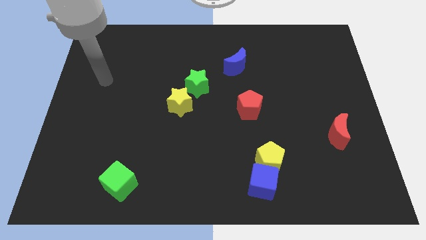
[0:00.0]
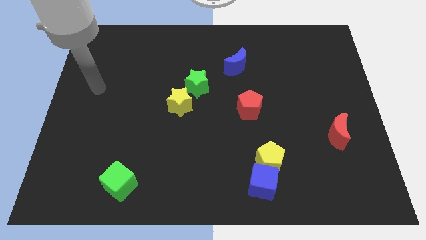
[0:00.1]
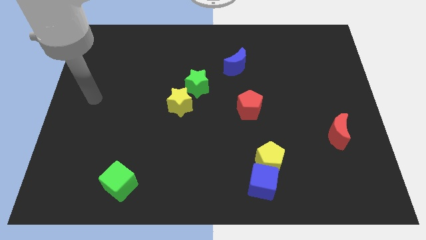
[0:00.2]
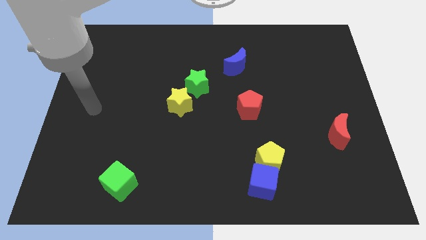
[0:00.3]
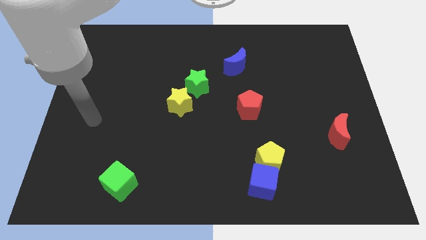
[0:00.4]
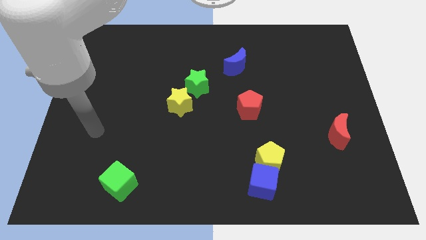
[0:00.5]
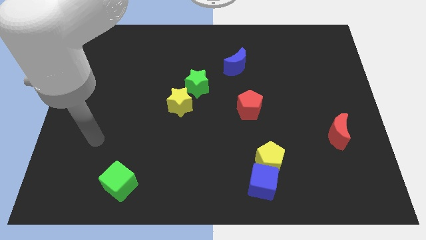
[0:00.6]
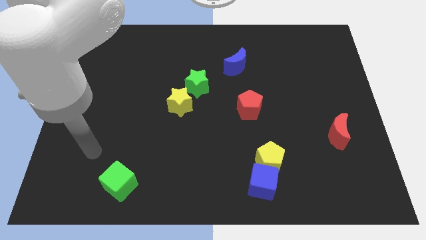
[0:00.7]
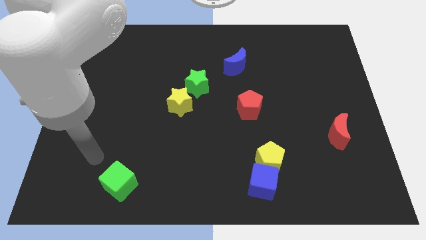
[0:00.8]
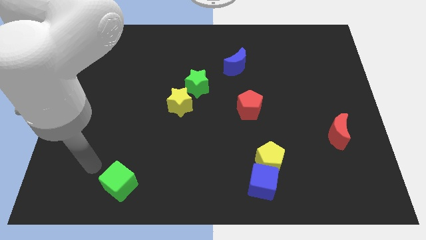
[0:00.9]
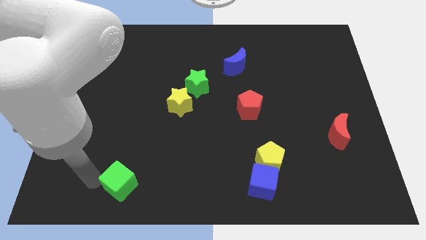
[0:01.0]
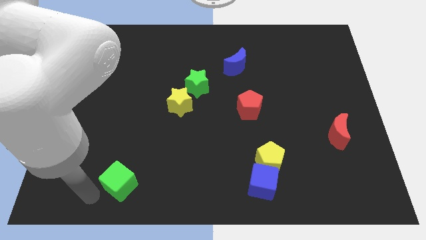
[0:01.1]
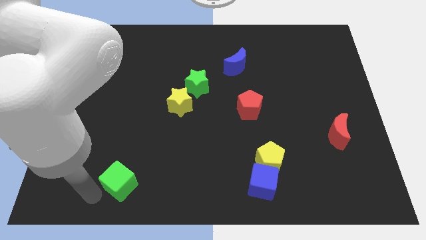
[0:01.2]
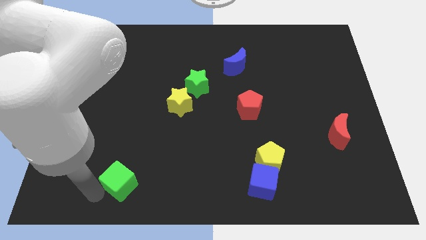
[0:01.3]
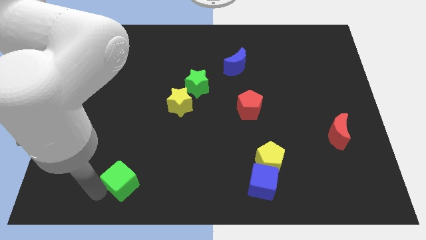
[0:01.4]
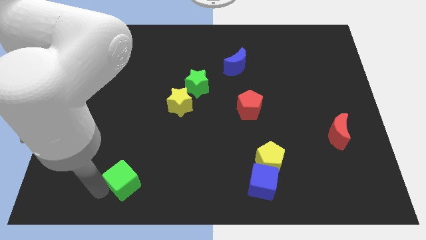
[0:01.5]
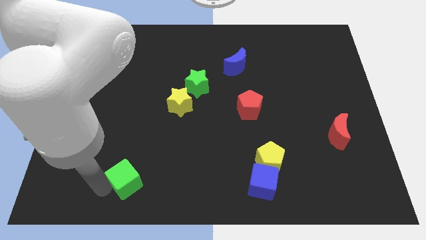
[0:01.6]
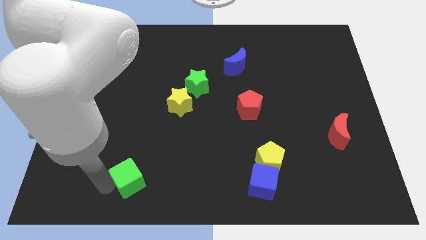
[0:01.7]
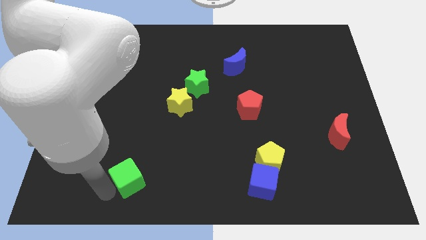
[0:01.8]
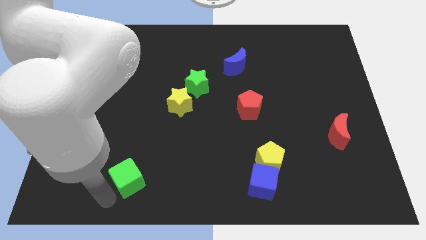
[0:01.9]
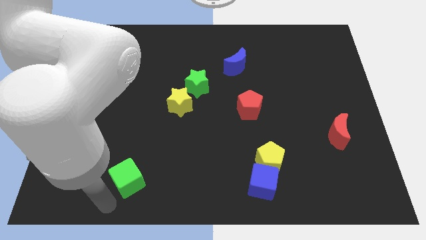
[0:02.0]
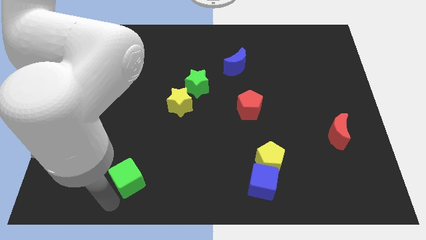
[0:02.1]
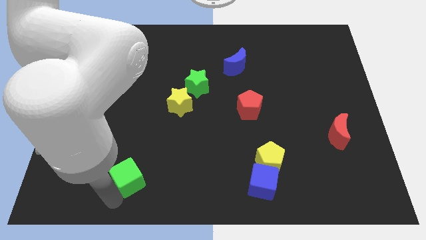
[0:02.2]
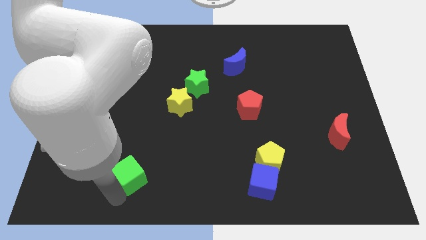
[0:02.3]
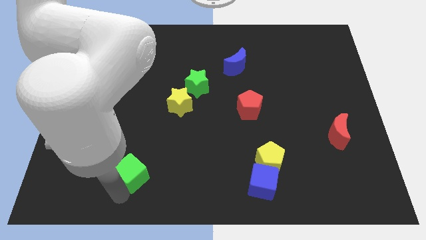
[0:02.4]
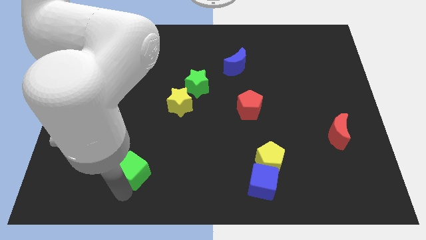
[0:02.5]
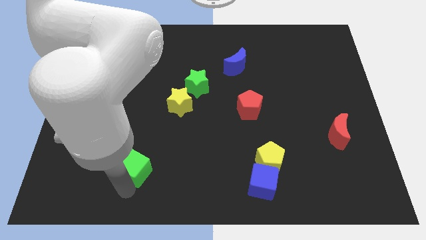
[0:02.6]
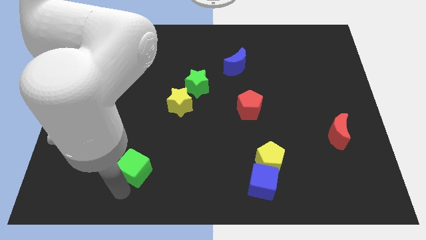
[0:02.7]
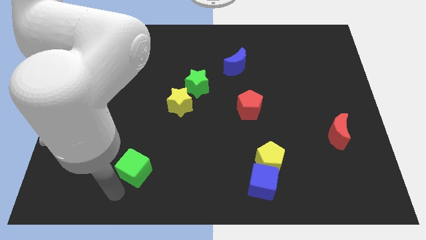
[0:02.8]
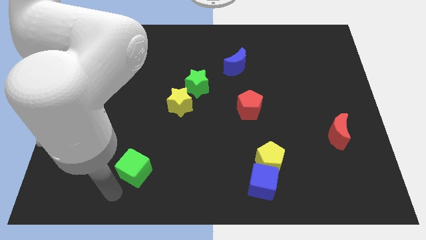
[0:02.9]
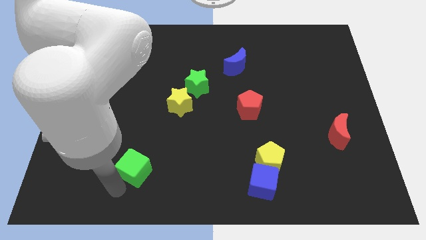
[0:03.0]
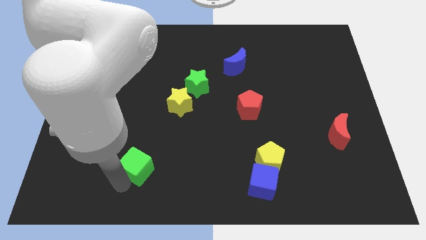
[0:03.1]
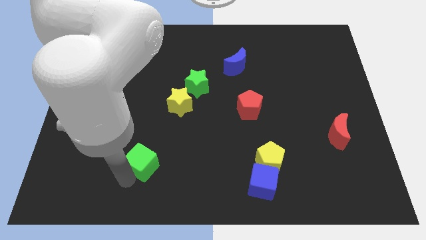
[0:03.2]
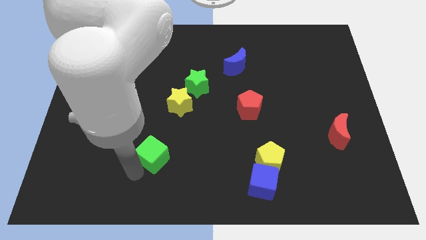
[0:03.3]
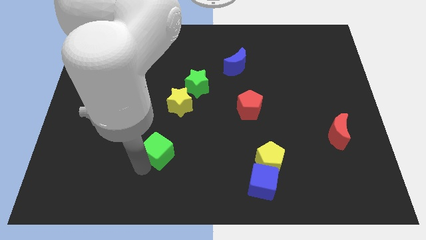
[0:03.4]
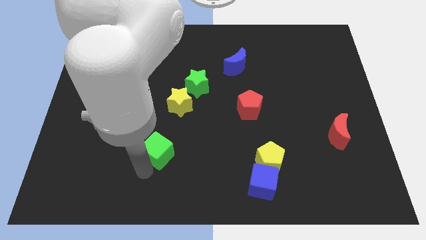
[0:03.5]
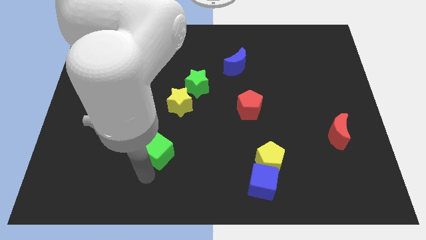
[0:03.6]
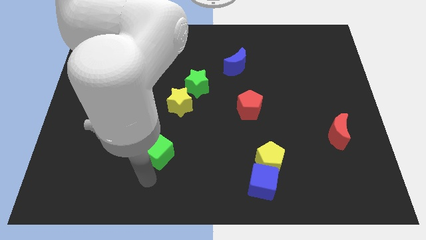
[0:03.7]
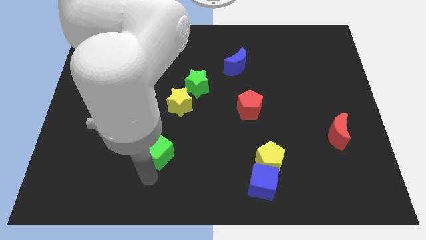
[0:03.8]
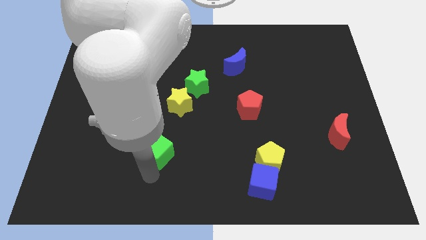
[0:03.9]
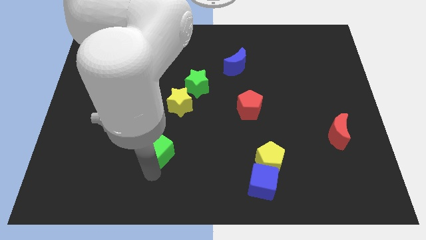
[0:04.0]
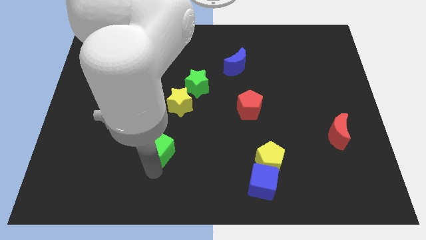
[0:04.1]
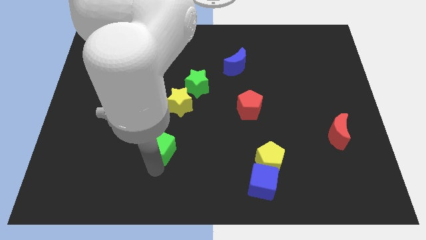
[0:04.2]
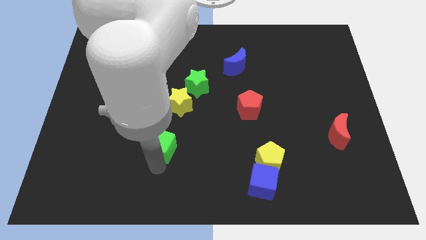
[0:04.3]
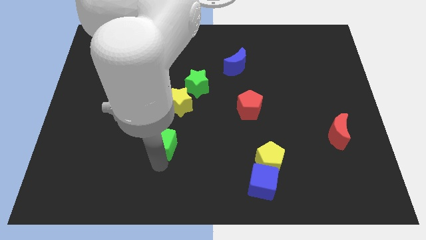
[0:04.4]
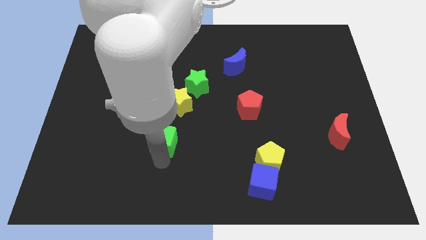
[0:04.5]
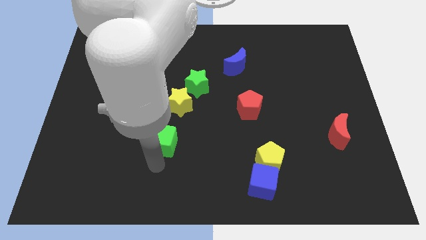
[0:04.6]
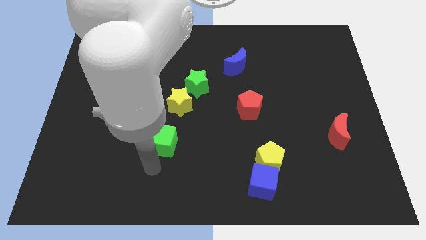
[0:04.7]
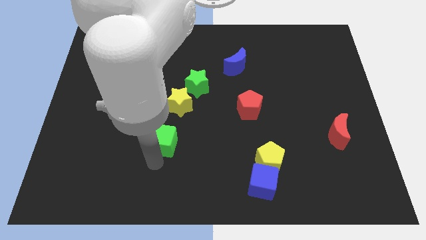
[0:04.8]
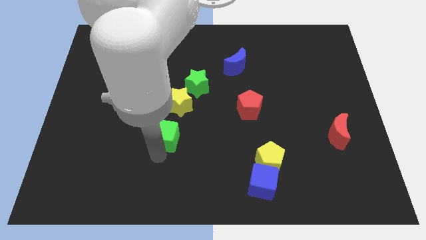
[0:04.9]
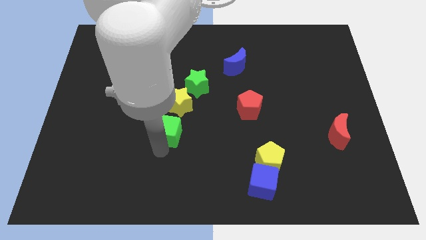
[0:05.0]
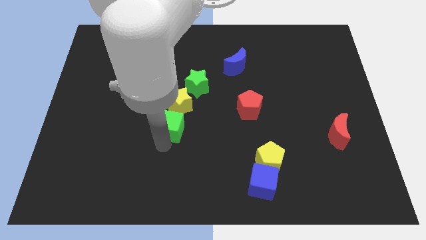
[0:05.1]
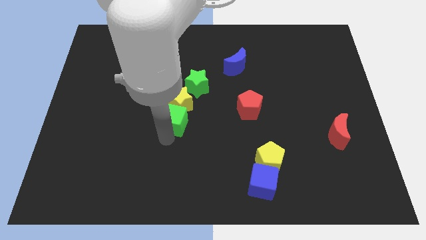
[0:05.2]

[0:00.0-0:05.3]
slide the green cube next to the yellow star

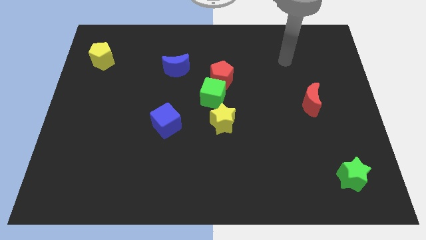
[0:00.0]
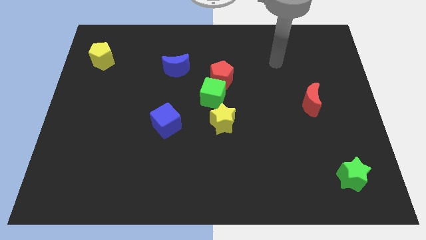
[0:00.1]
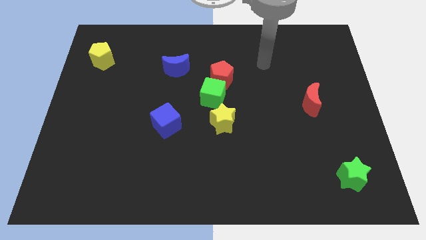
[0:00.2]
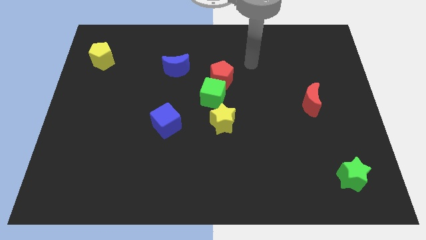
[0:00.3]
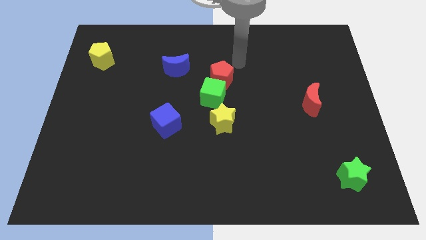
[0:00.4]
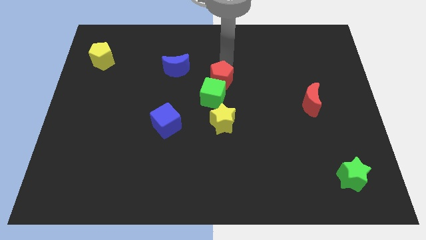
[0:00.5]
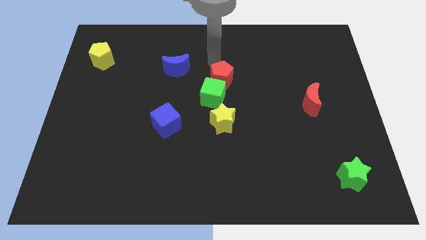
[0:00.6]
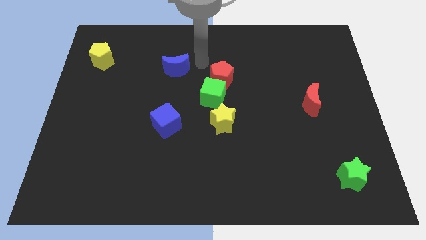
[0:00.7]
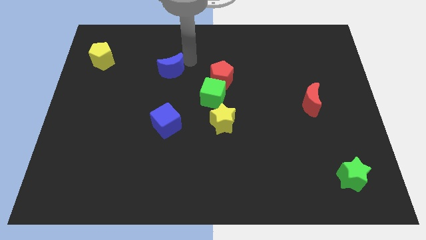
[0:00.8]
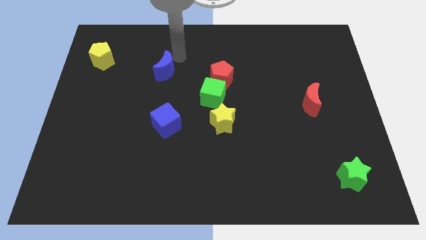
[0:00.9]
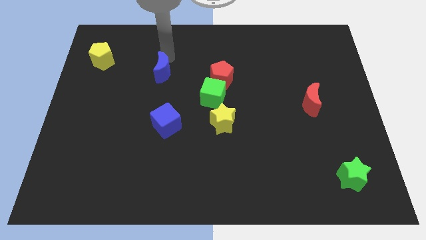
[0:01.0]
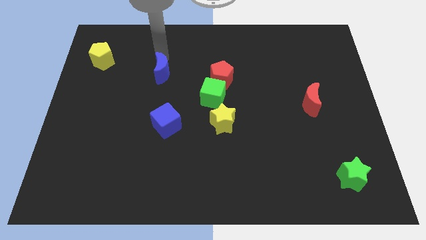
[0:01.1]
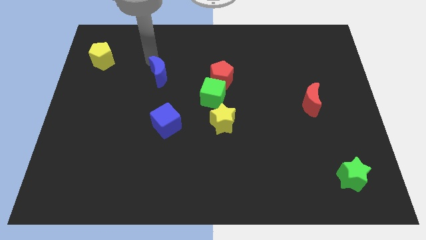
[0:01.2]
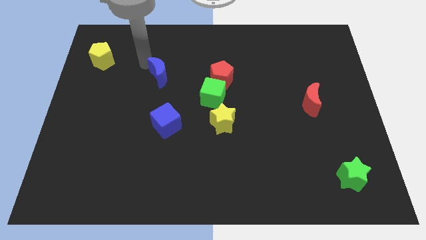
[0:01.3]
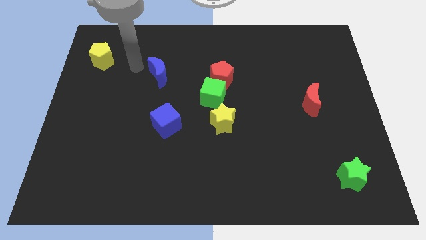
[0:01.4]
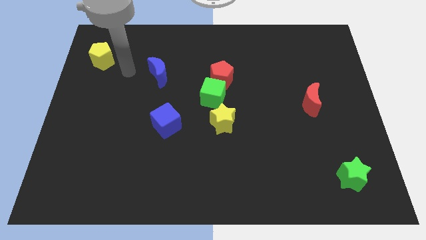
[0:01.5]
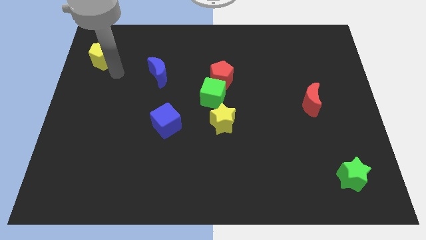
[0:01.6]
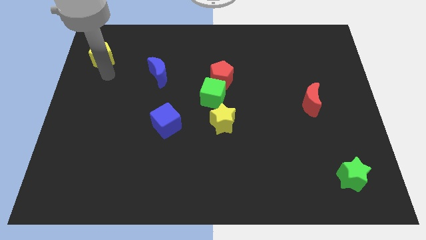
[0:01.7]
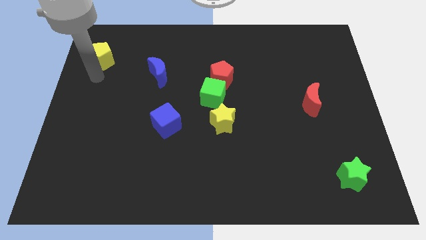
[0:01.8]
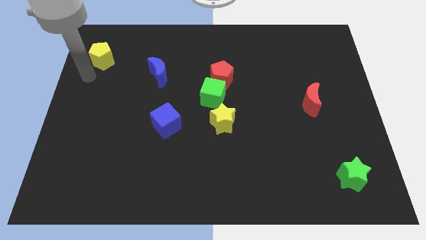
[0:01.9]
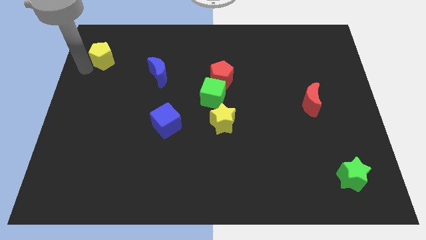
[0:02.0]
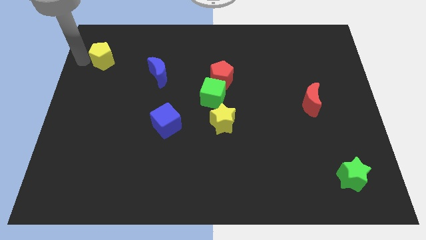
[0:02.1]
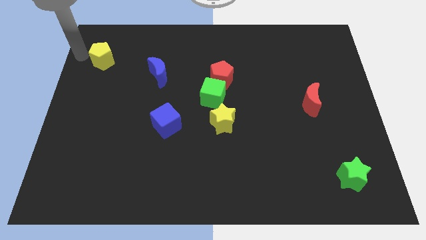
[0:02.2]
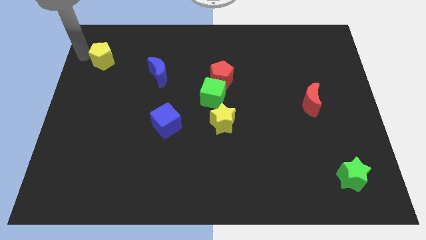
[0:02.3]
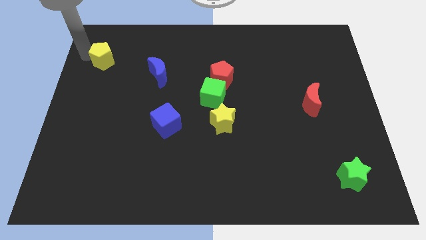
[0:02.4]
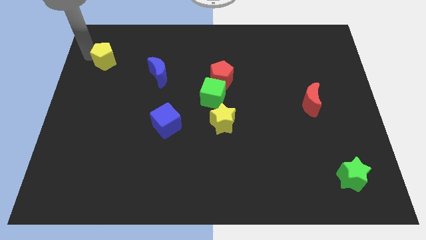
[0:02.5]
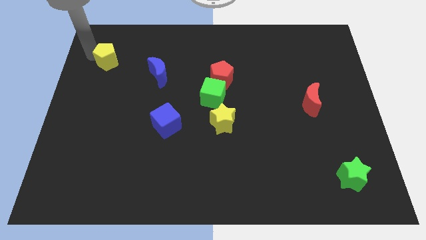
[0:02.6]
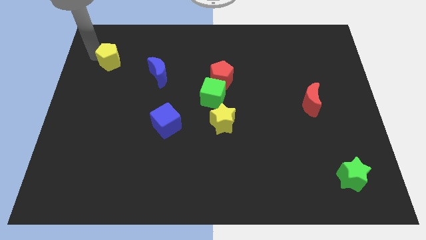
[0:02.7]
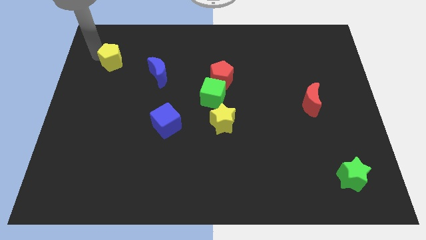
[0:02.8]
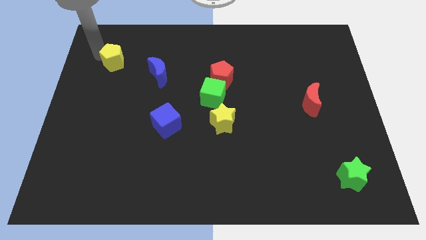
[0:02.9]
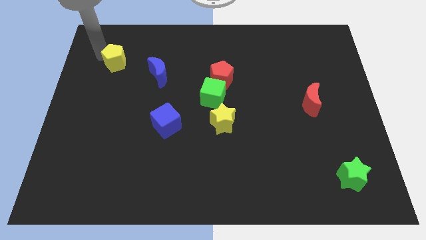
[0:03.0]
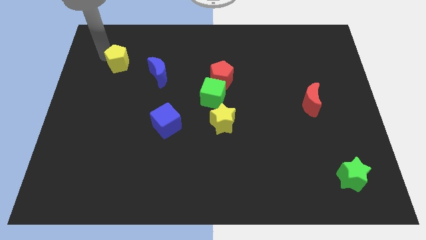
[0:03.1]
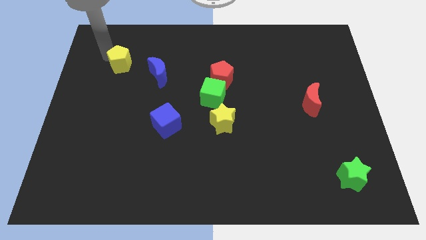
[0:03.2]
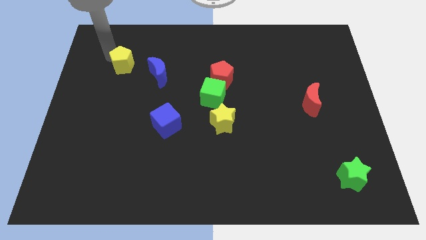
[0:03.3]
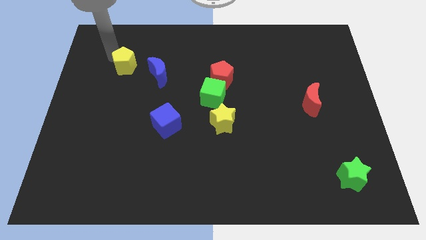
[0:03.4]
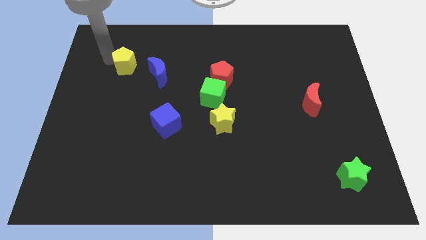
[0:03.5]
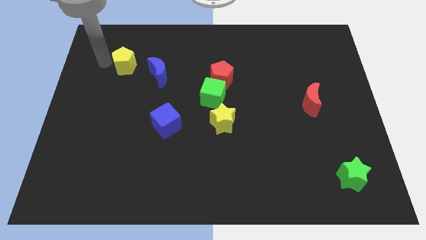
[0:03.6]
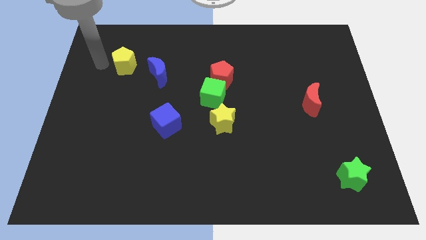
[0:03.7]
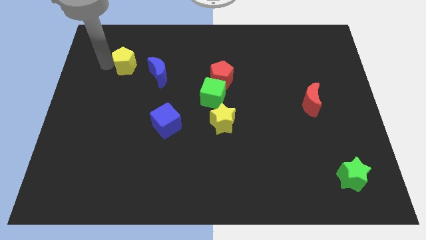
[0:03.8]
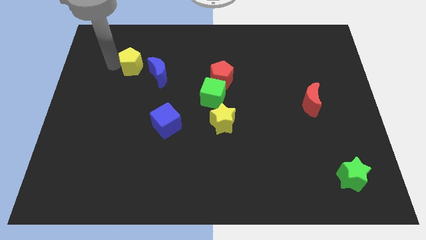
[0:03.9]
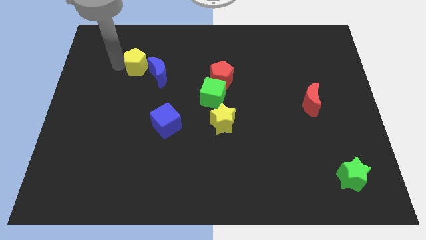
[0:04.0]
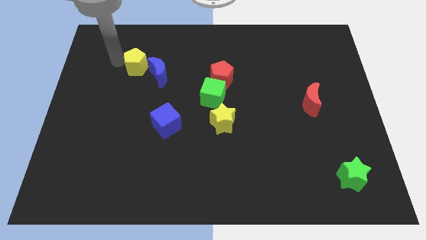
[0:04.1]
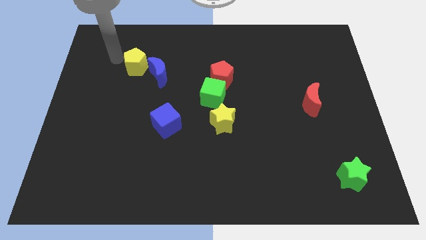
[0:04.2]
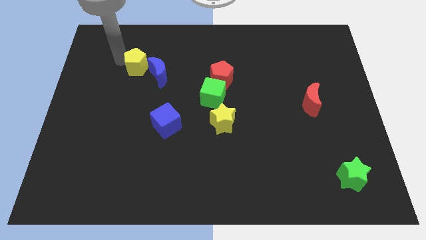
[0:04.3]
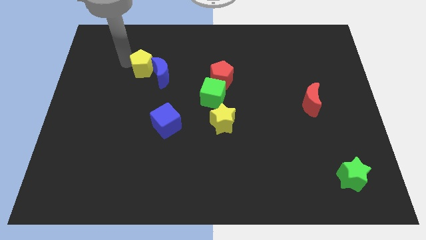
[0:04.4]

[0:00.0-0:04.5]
put the yellow pentagon next to the blue moon
